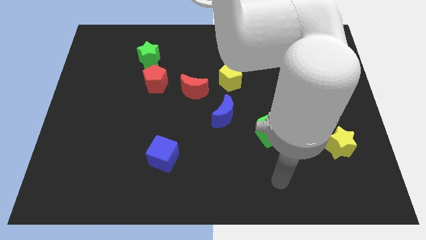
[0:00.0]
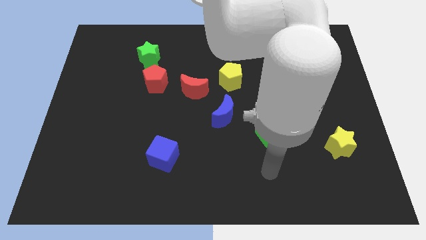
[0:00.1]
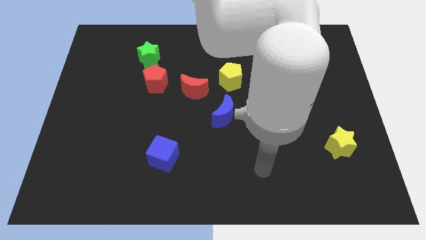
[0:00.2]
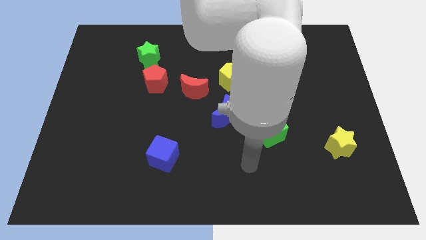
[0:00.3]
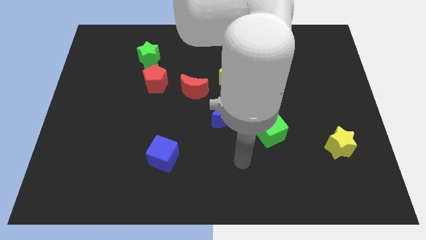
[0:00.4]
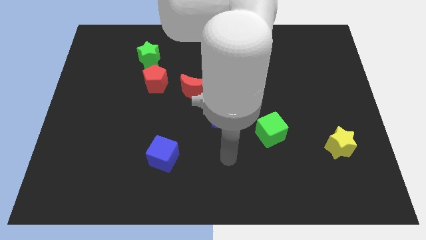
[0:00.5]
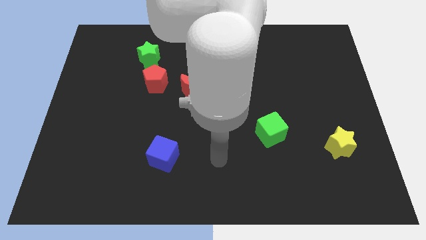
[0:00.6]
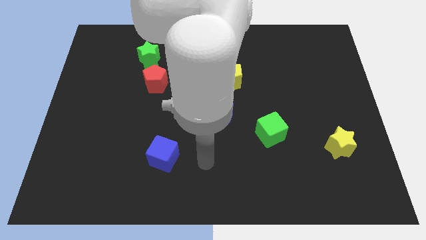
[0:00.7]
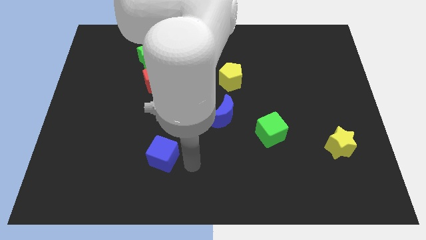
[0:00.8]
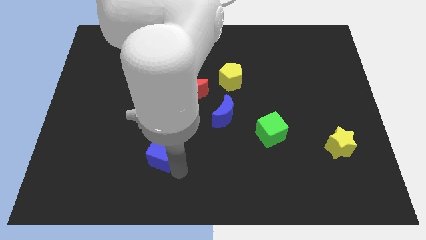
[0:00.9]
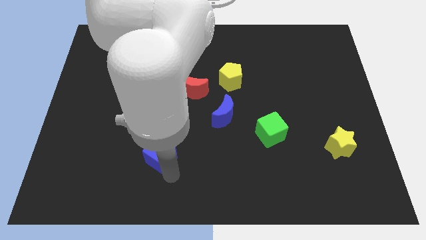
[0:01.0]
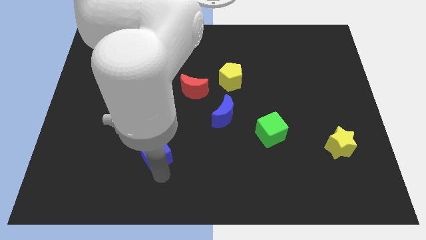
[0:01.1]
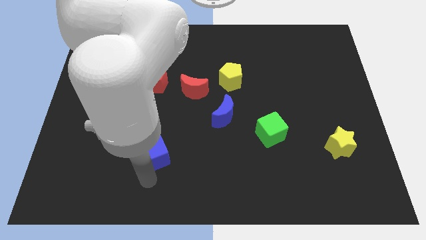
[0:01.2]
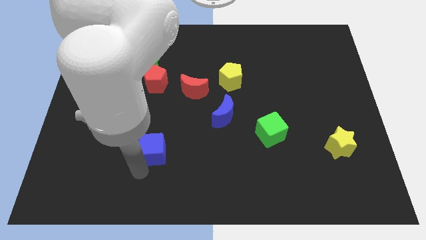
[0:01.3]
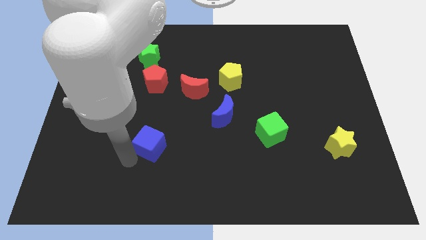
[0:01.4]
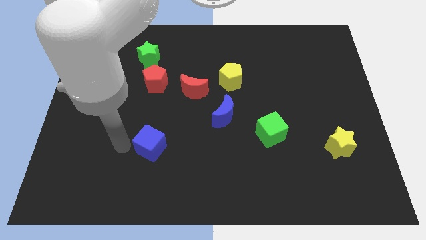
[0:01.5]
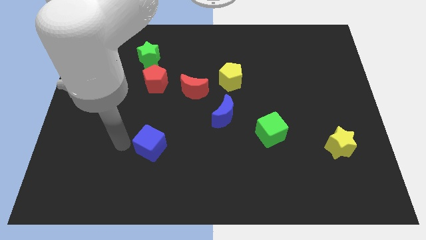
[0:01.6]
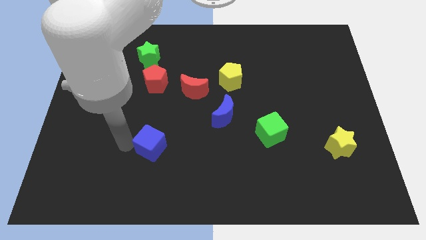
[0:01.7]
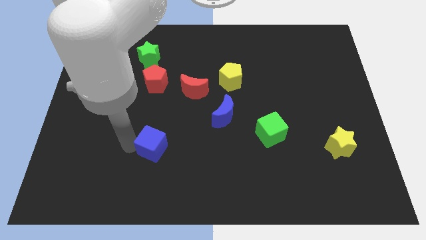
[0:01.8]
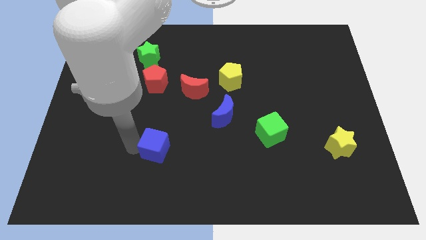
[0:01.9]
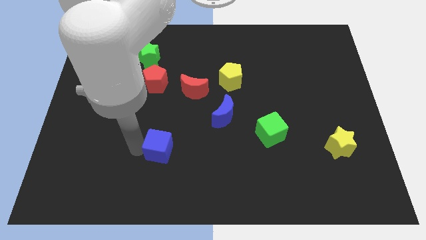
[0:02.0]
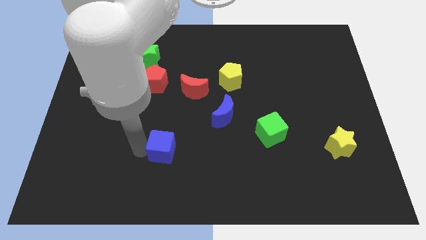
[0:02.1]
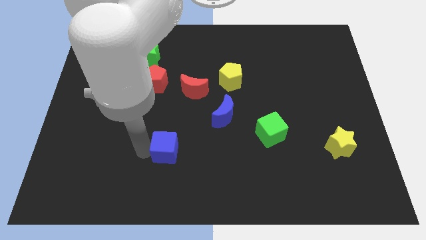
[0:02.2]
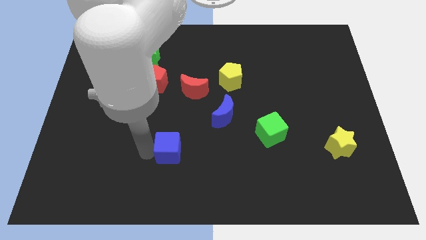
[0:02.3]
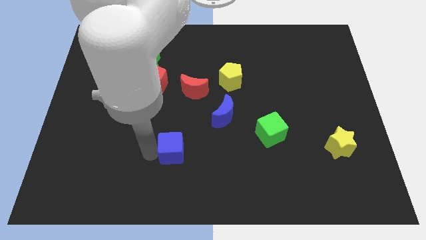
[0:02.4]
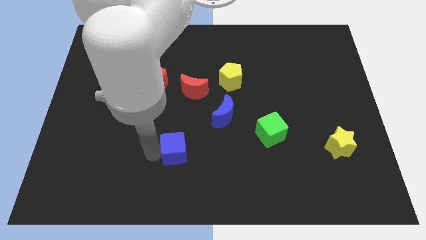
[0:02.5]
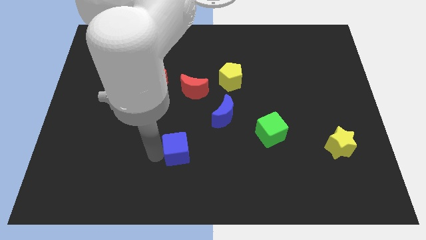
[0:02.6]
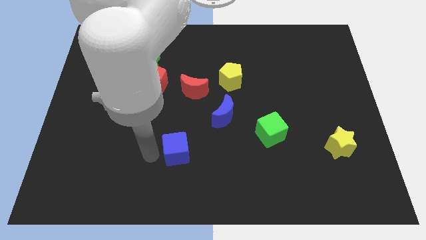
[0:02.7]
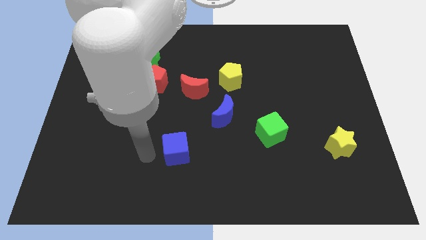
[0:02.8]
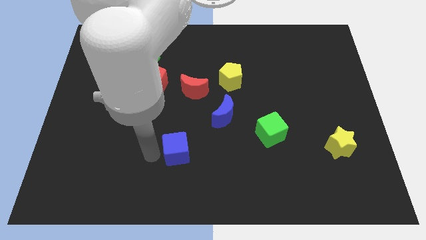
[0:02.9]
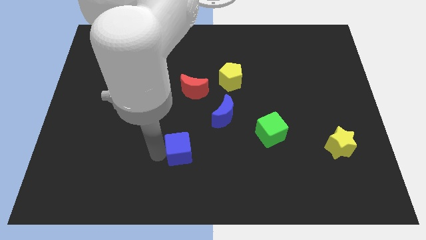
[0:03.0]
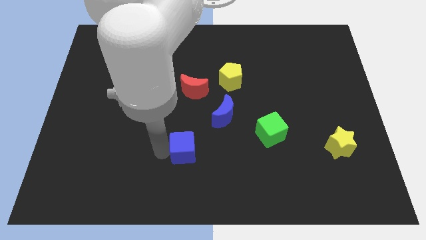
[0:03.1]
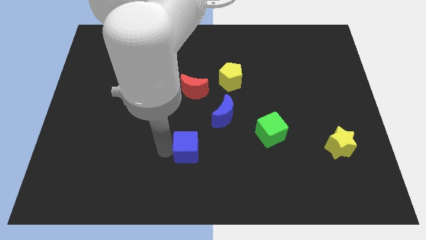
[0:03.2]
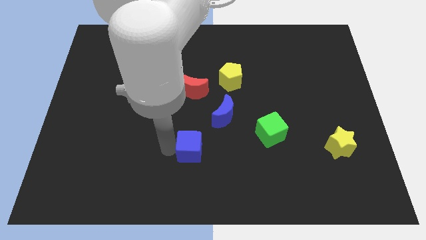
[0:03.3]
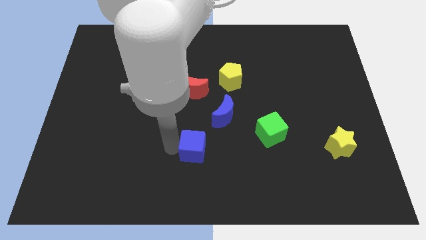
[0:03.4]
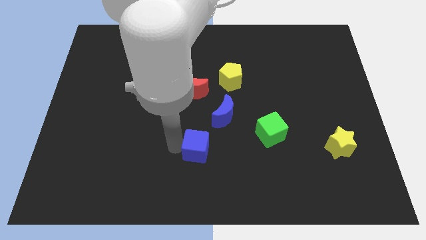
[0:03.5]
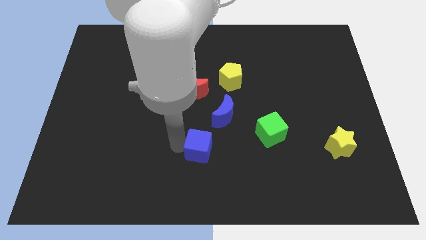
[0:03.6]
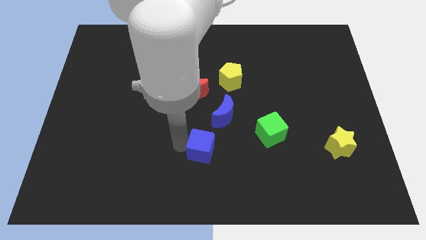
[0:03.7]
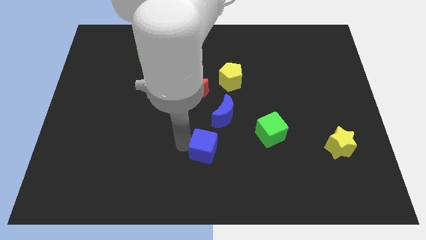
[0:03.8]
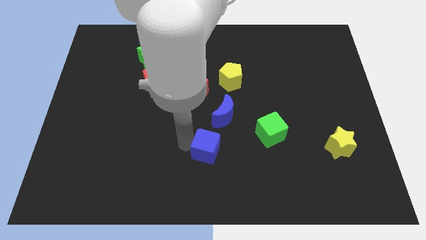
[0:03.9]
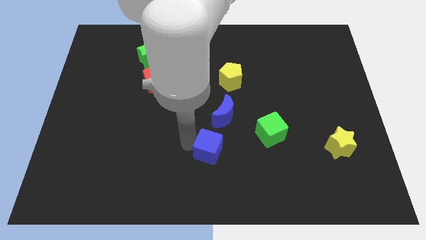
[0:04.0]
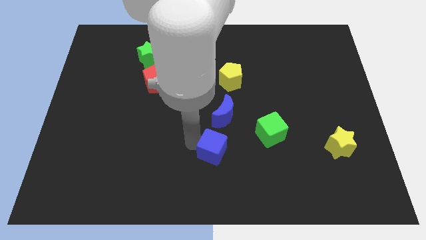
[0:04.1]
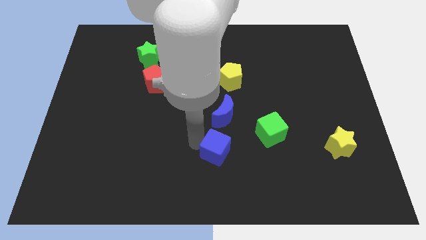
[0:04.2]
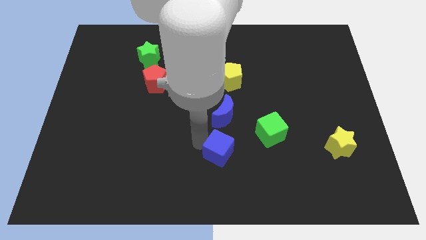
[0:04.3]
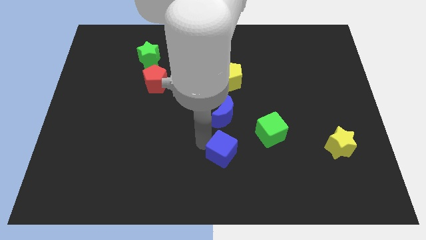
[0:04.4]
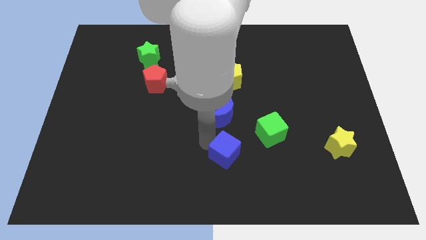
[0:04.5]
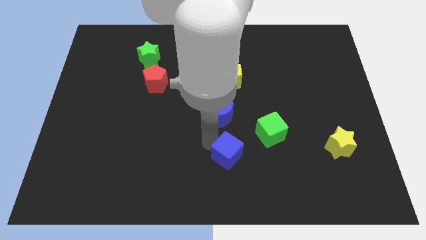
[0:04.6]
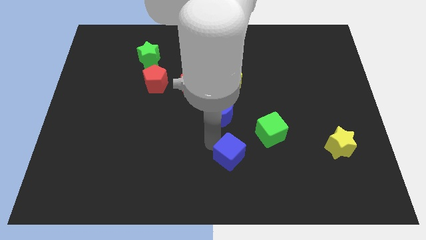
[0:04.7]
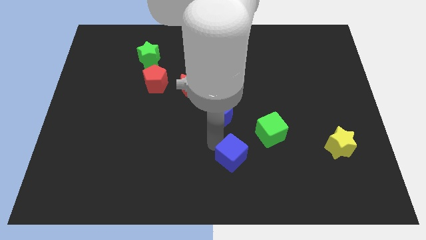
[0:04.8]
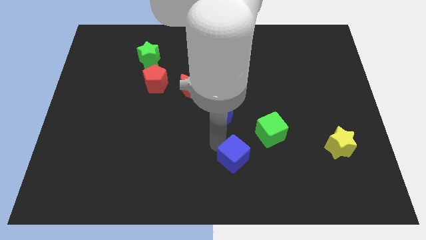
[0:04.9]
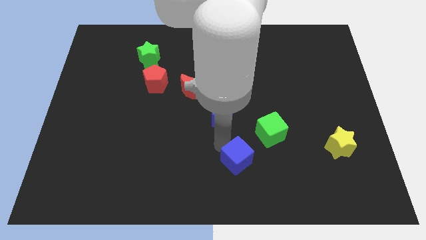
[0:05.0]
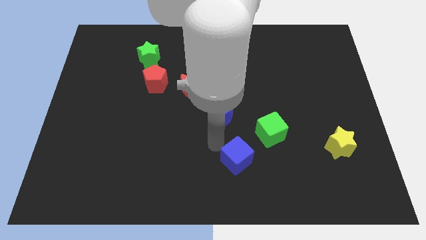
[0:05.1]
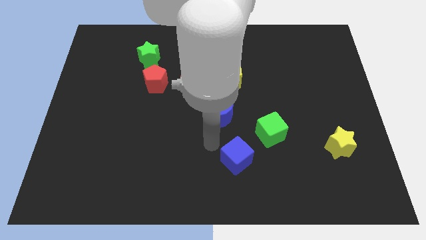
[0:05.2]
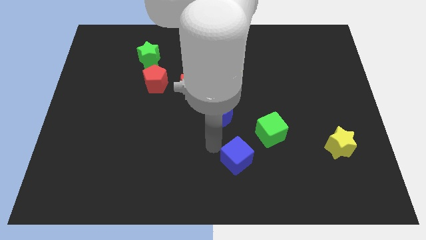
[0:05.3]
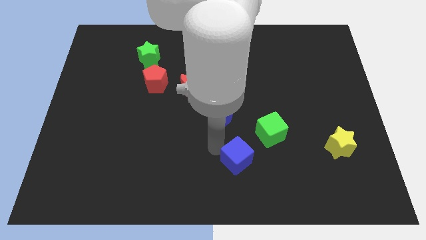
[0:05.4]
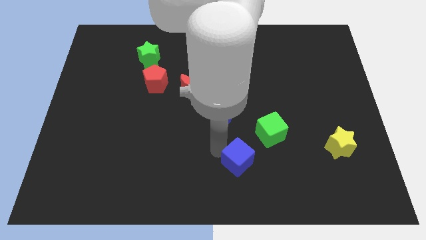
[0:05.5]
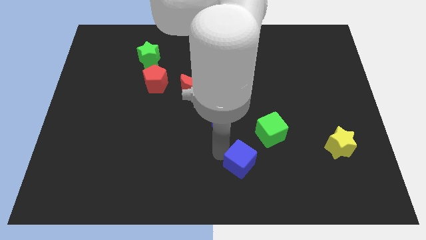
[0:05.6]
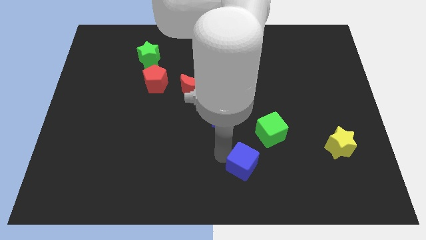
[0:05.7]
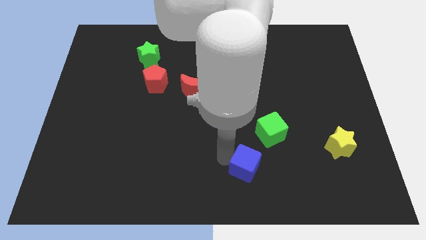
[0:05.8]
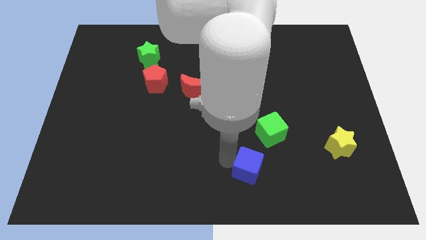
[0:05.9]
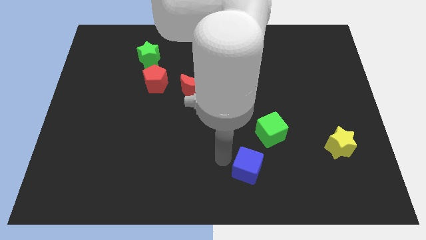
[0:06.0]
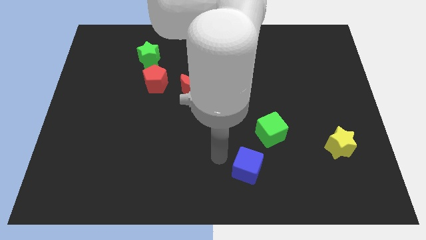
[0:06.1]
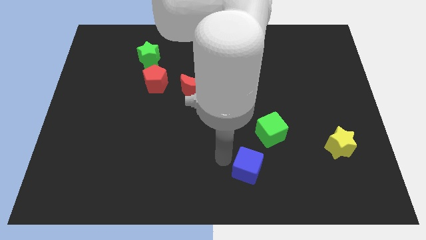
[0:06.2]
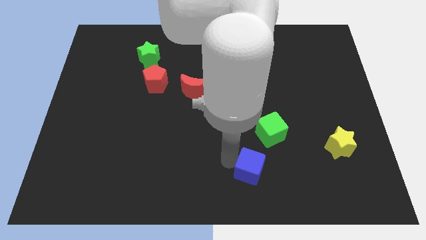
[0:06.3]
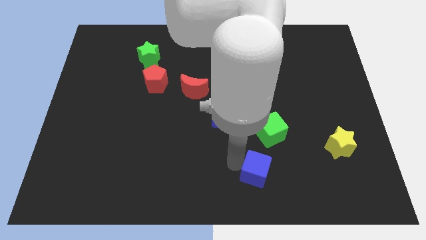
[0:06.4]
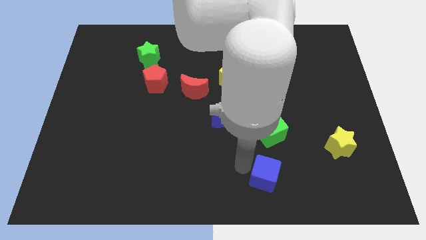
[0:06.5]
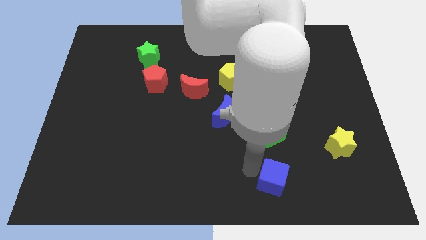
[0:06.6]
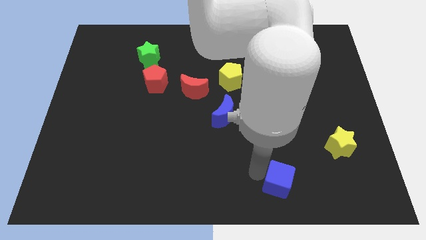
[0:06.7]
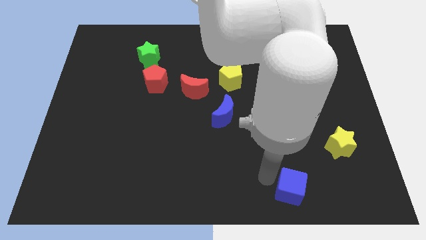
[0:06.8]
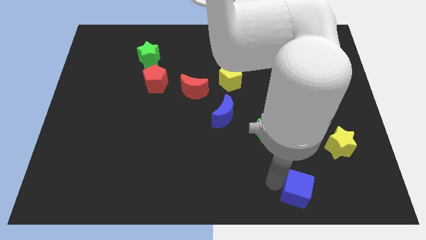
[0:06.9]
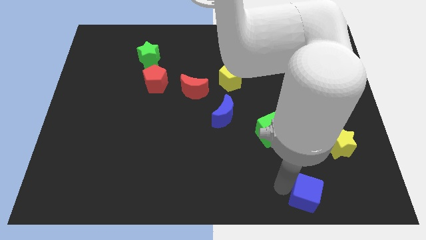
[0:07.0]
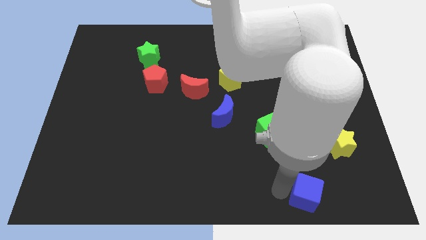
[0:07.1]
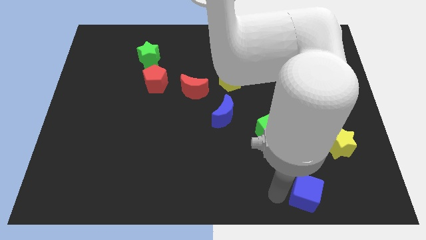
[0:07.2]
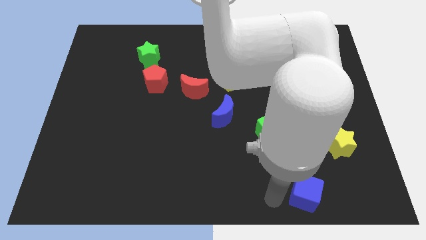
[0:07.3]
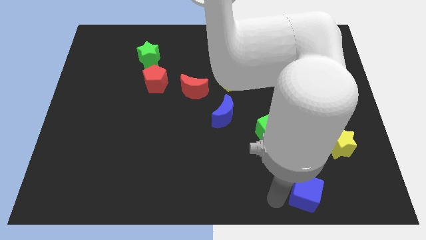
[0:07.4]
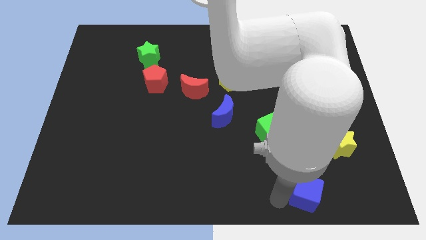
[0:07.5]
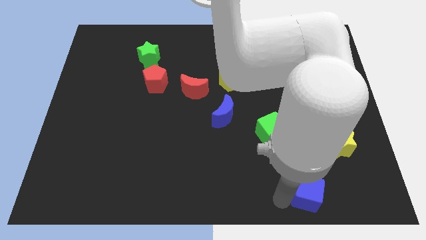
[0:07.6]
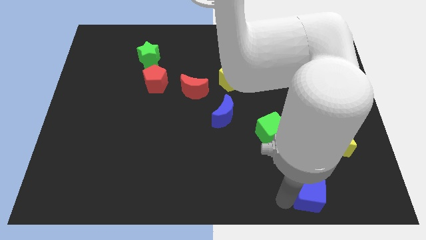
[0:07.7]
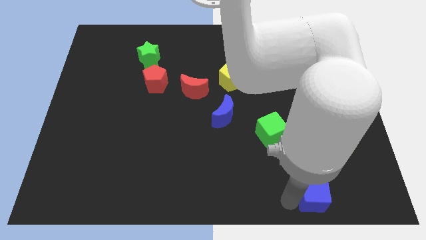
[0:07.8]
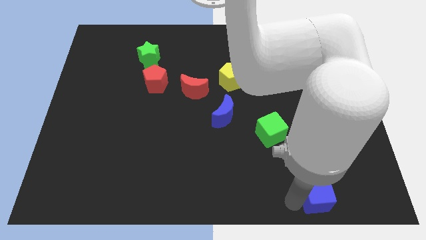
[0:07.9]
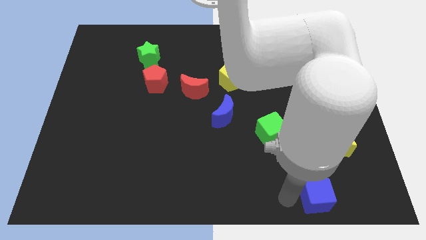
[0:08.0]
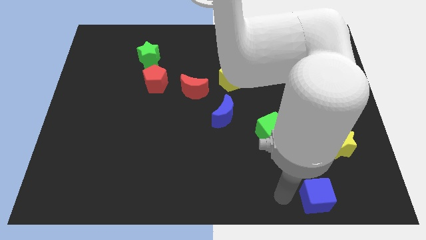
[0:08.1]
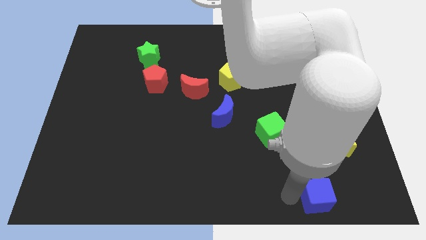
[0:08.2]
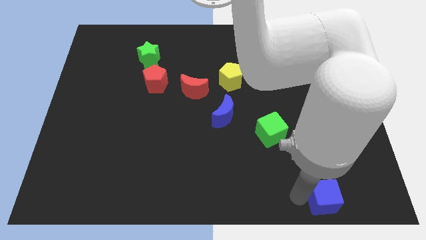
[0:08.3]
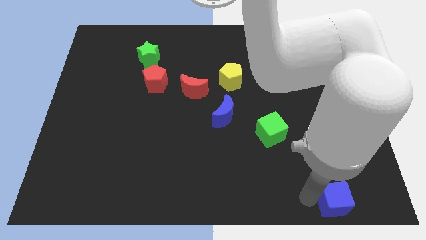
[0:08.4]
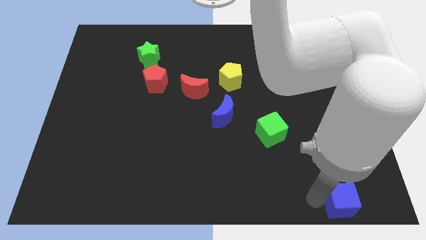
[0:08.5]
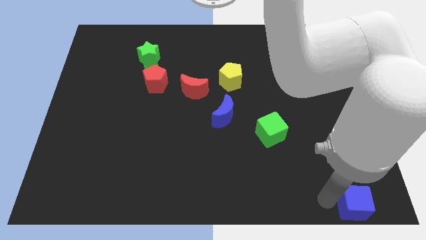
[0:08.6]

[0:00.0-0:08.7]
slide the blue cube to the bottom right corner
